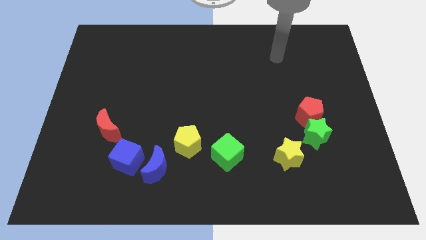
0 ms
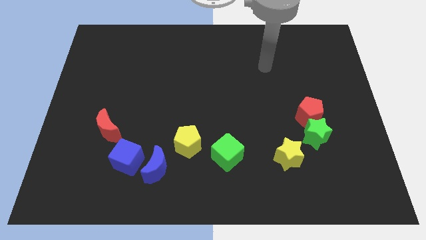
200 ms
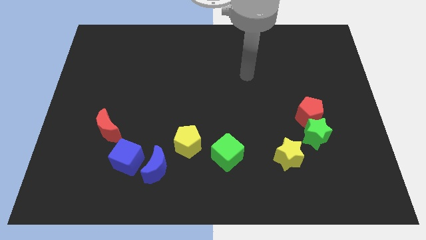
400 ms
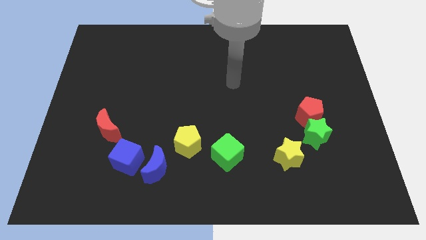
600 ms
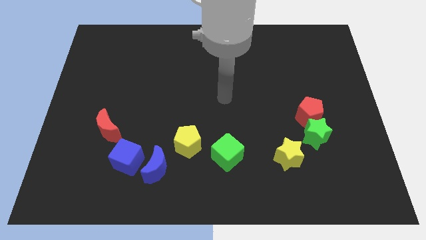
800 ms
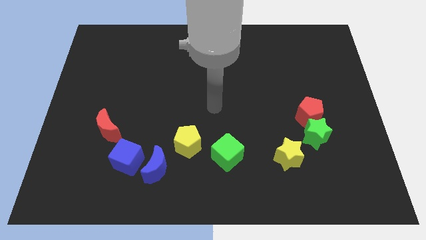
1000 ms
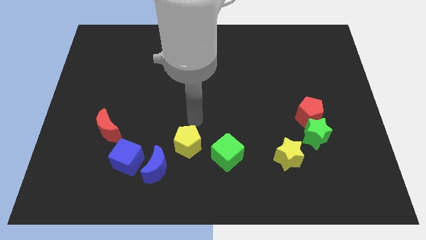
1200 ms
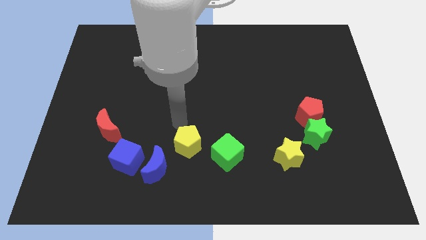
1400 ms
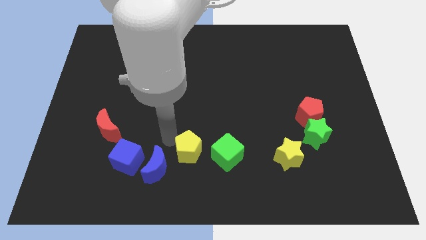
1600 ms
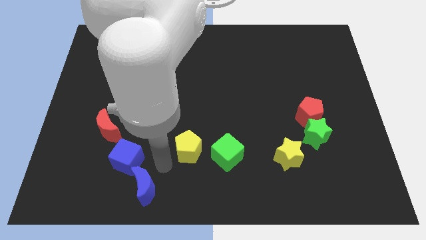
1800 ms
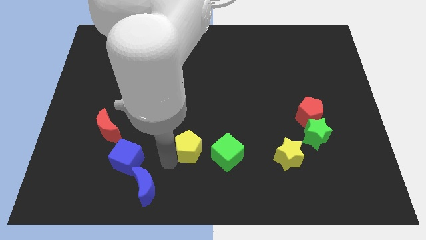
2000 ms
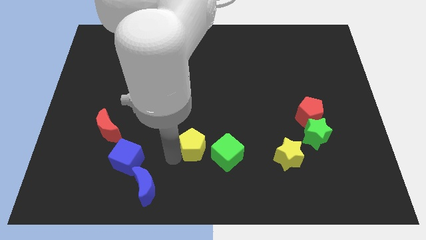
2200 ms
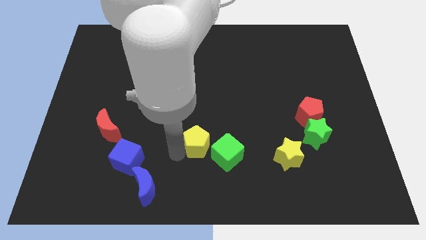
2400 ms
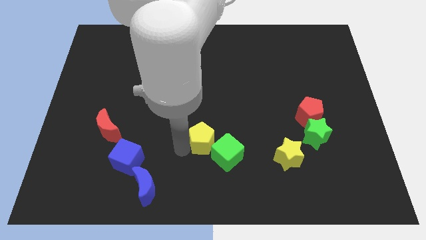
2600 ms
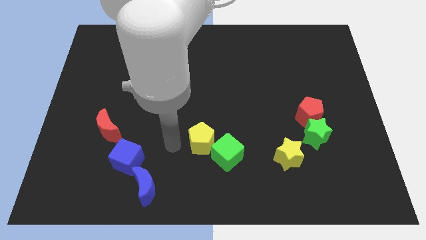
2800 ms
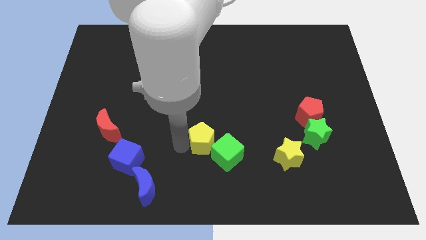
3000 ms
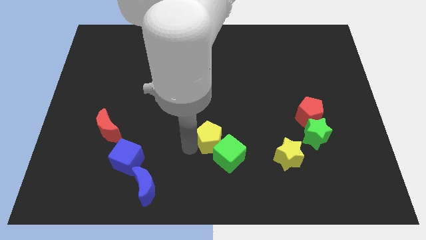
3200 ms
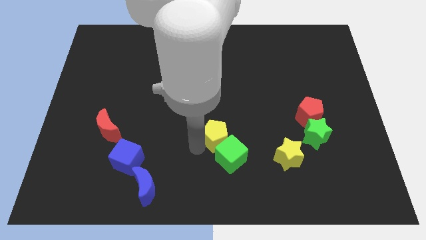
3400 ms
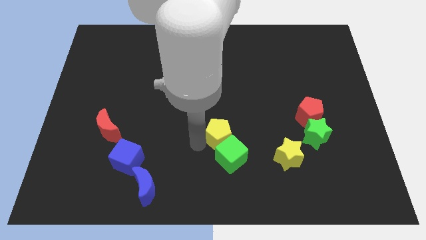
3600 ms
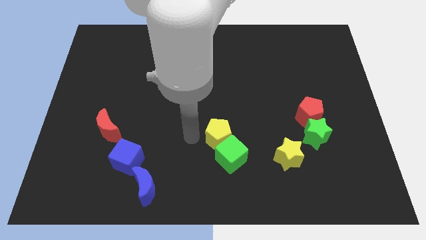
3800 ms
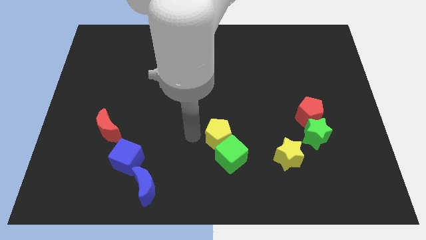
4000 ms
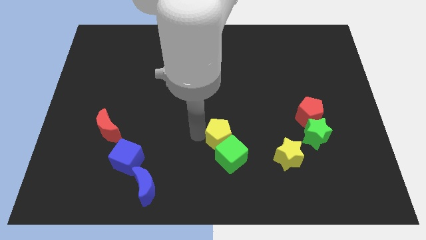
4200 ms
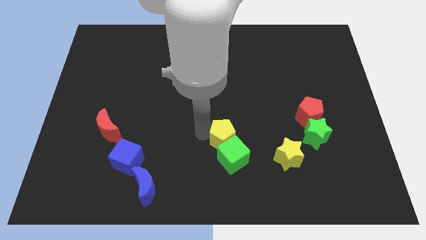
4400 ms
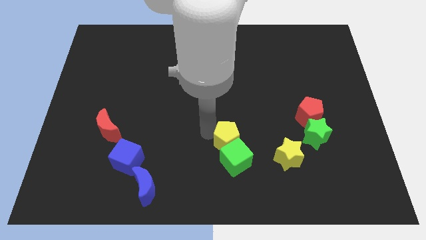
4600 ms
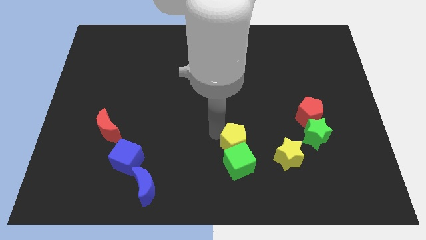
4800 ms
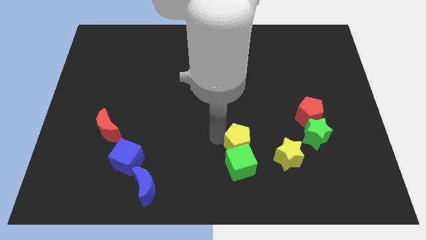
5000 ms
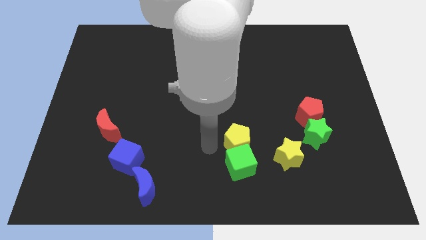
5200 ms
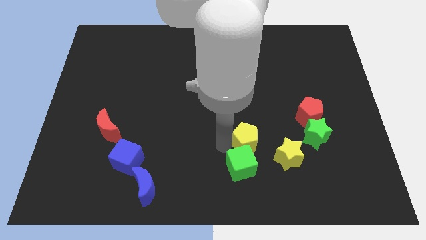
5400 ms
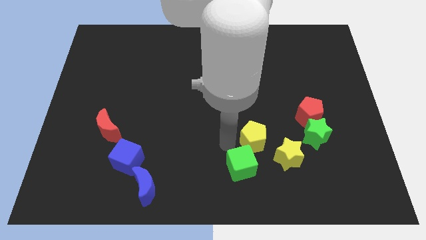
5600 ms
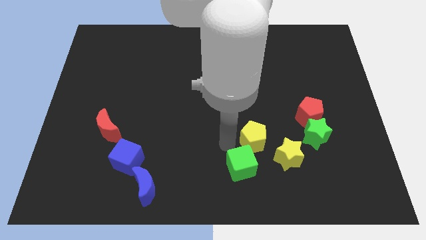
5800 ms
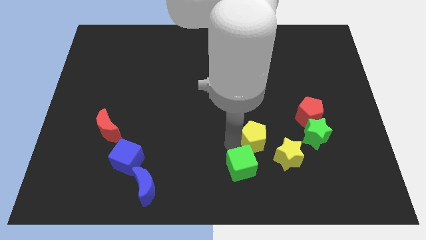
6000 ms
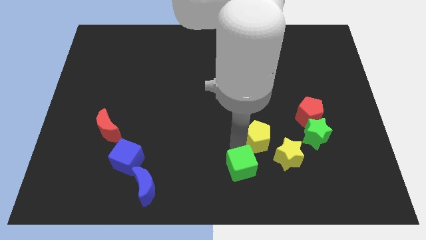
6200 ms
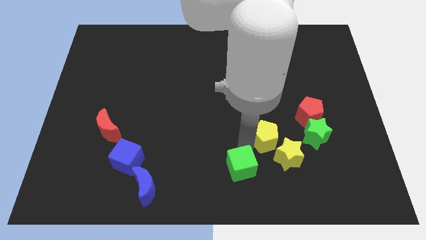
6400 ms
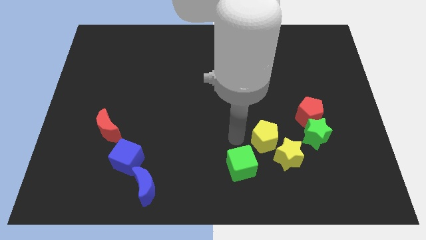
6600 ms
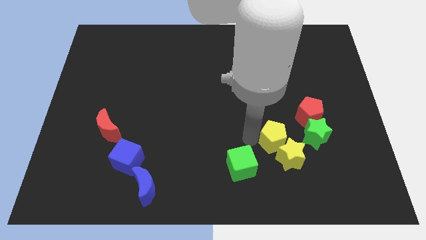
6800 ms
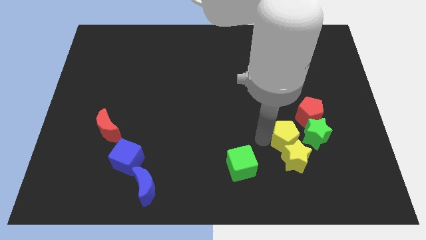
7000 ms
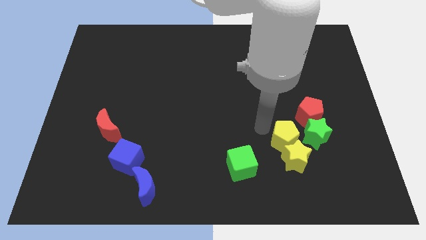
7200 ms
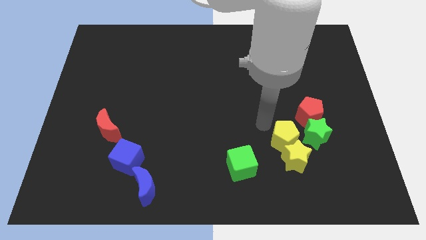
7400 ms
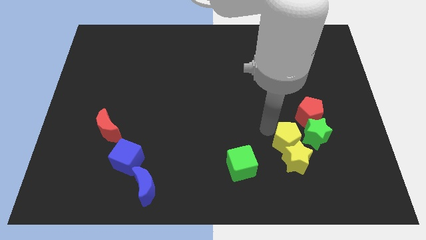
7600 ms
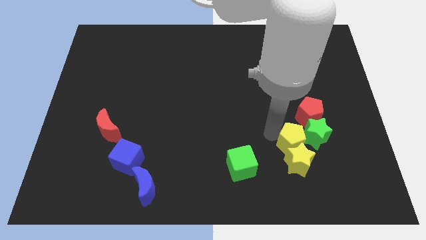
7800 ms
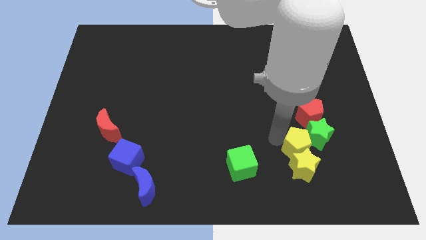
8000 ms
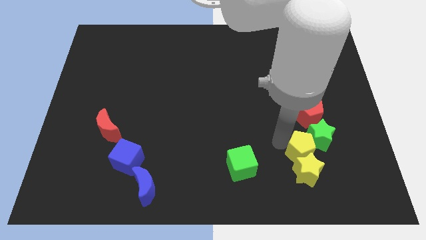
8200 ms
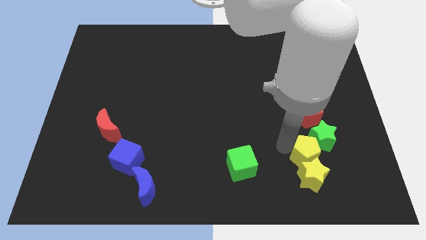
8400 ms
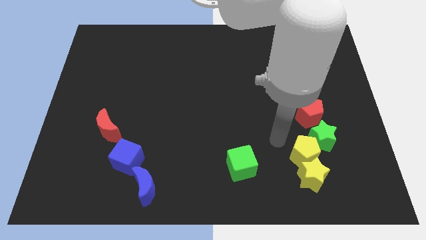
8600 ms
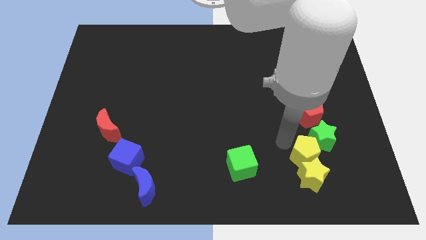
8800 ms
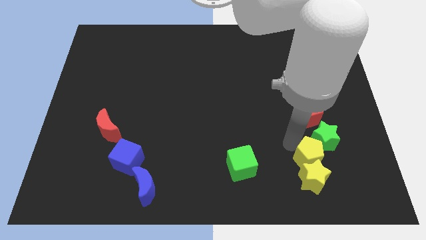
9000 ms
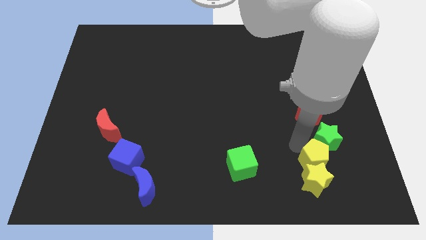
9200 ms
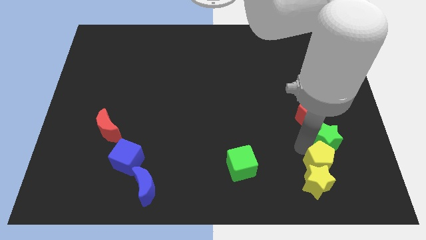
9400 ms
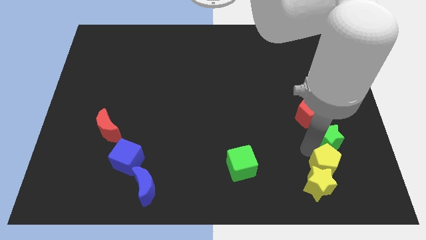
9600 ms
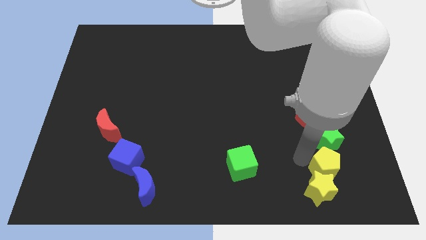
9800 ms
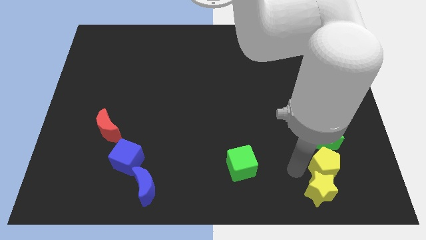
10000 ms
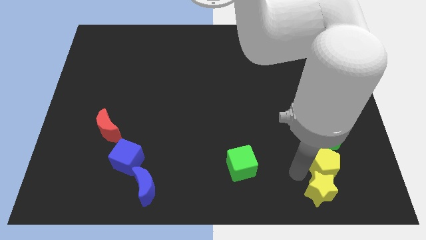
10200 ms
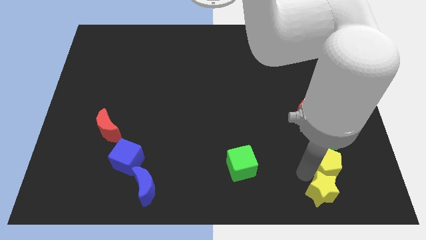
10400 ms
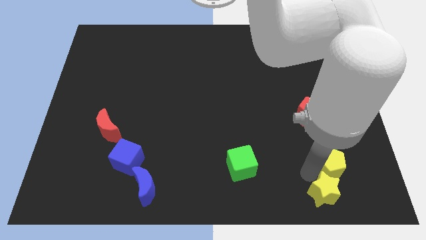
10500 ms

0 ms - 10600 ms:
move the yellow pentagon diagonally down and to the right of the green star

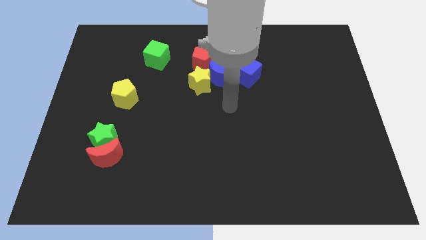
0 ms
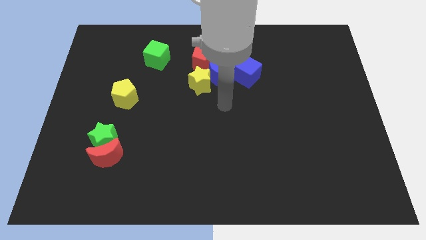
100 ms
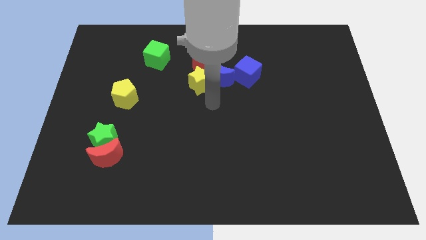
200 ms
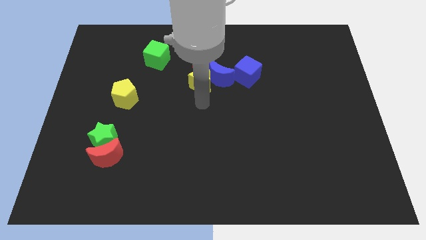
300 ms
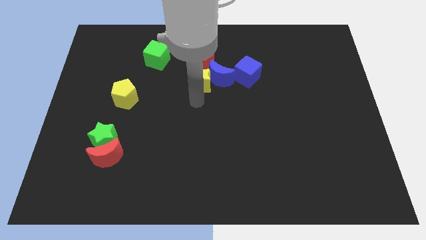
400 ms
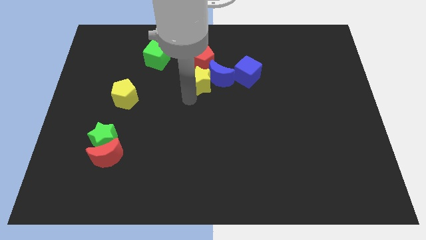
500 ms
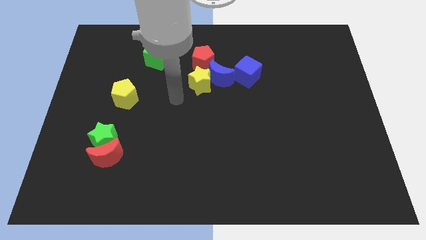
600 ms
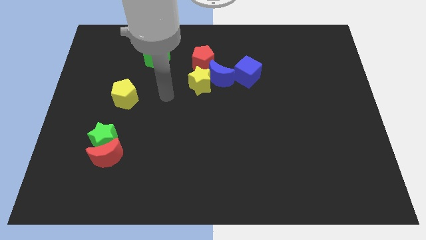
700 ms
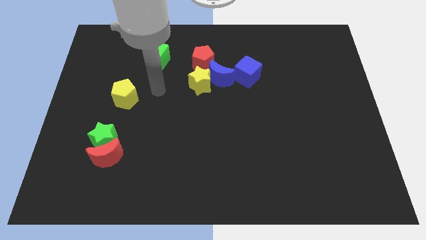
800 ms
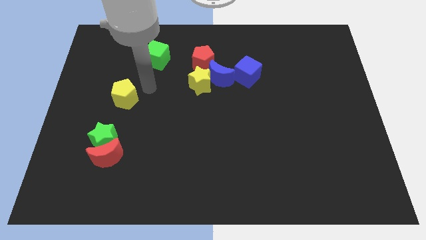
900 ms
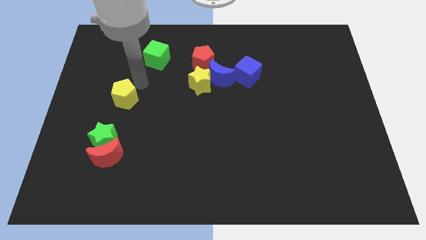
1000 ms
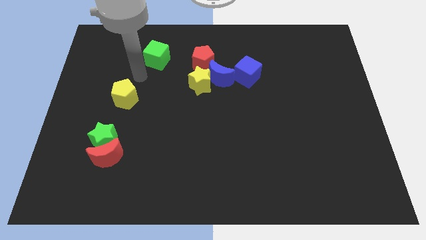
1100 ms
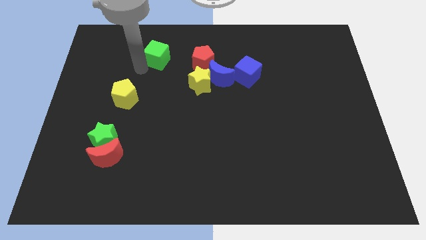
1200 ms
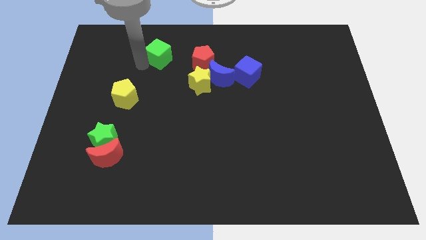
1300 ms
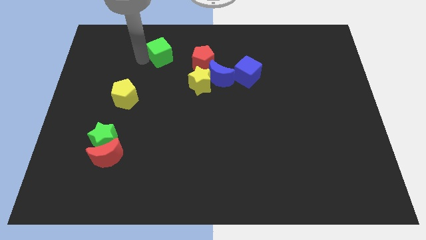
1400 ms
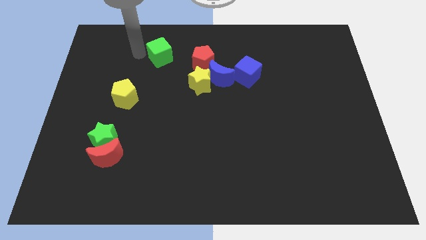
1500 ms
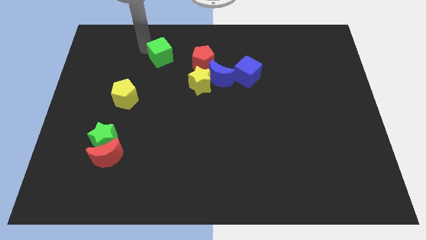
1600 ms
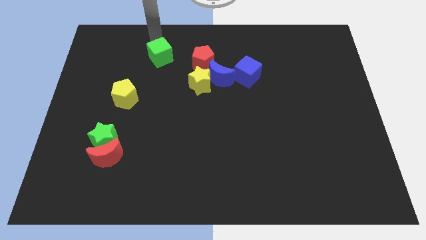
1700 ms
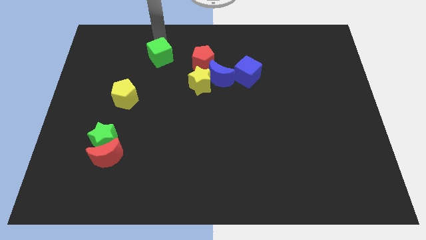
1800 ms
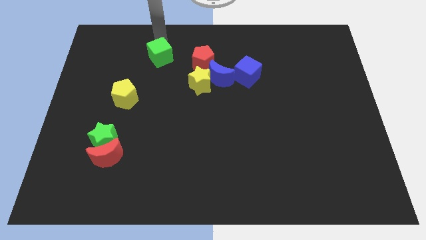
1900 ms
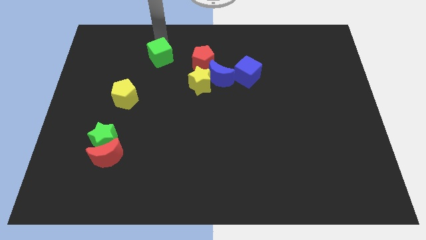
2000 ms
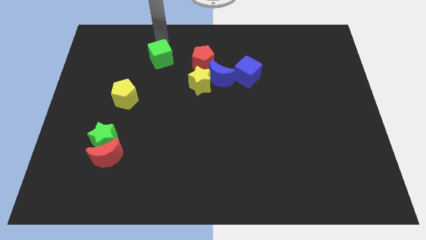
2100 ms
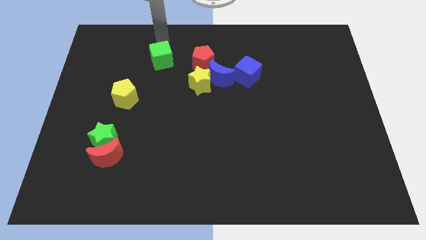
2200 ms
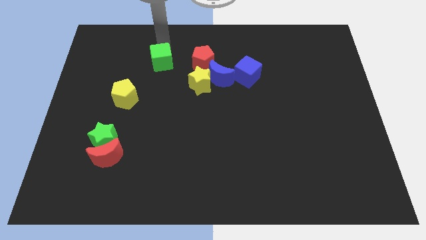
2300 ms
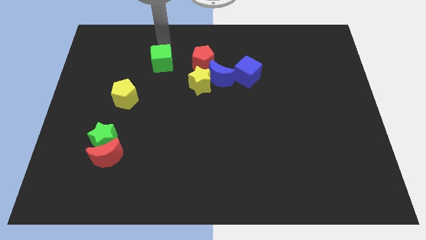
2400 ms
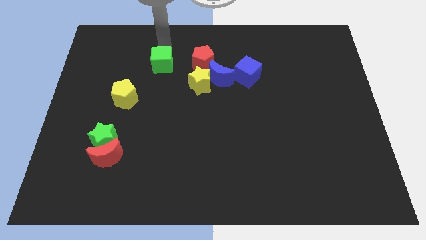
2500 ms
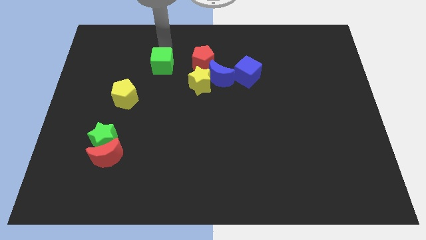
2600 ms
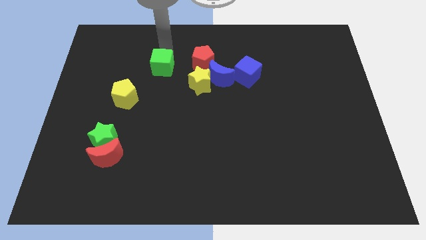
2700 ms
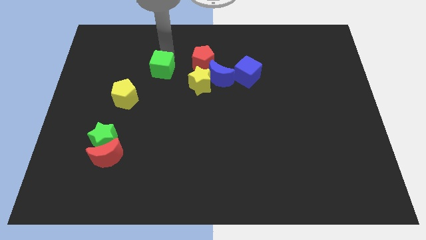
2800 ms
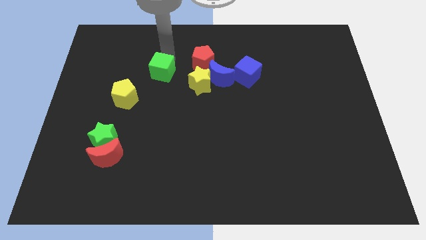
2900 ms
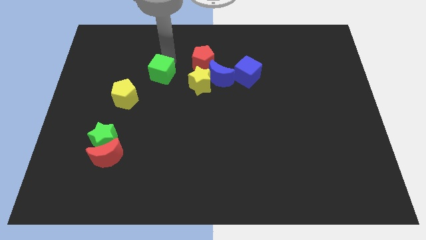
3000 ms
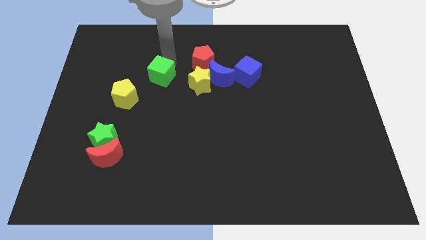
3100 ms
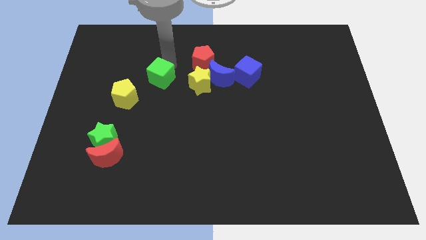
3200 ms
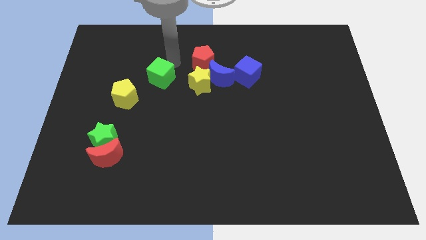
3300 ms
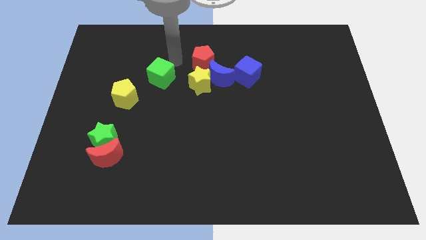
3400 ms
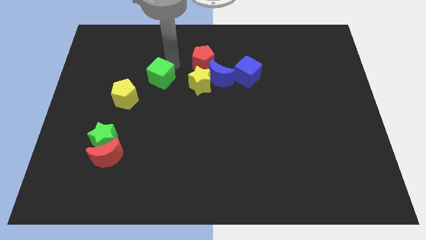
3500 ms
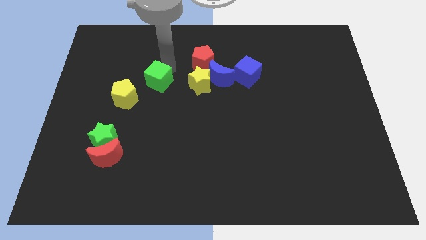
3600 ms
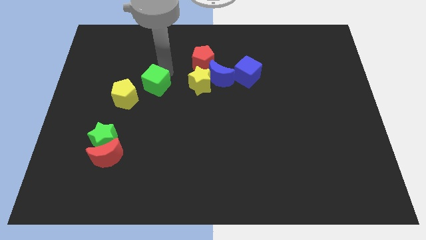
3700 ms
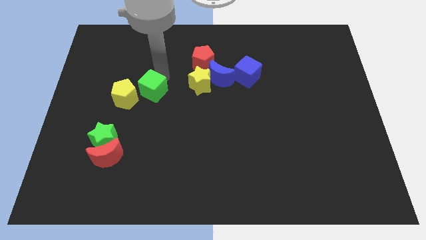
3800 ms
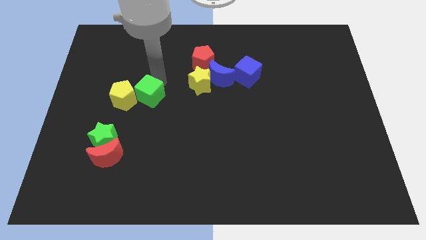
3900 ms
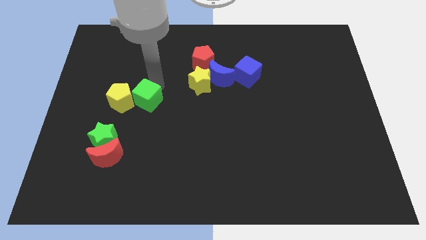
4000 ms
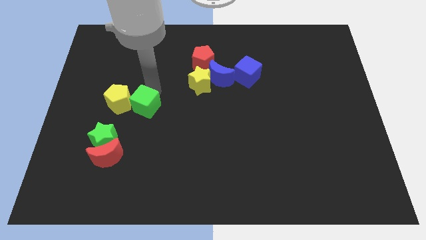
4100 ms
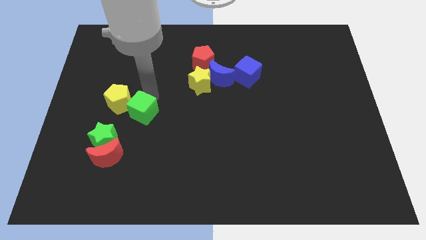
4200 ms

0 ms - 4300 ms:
slide the green cube to the top right of the green star
